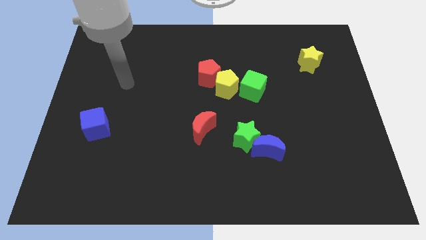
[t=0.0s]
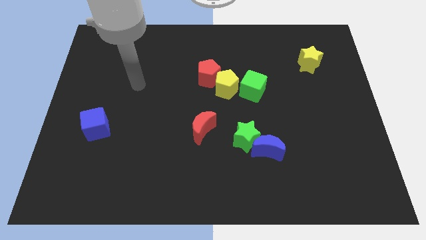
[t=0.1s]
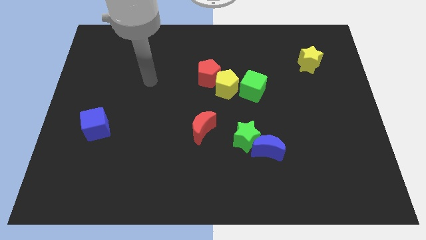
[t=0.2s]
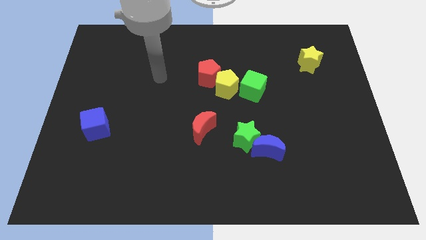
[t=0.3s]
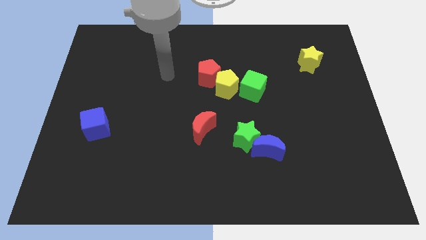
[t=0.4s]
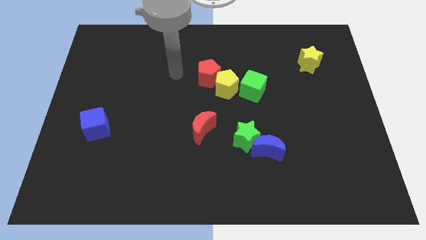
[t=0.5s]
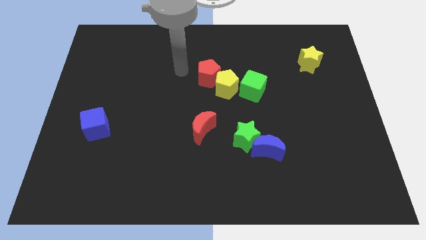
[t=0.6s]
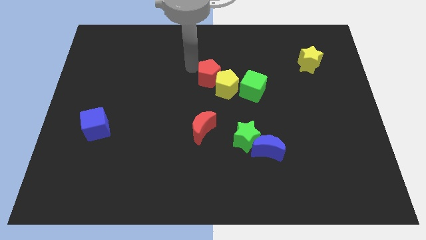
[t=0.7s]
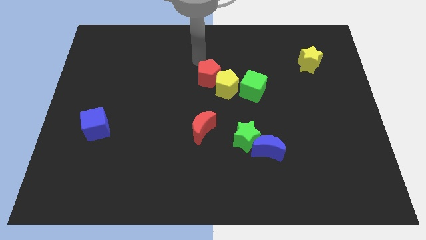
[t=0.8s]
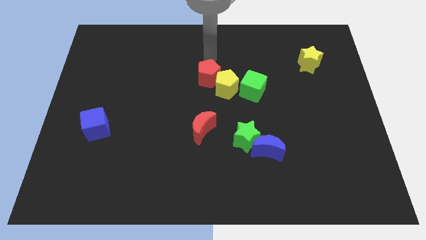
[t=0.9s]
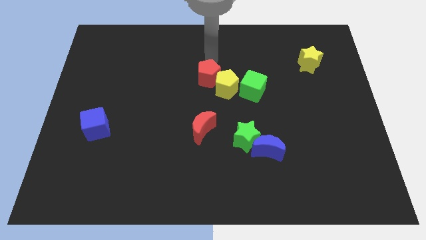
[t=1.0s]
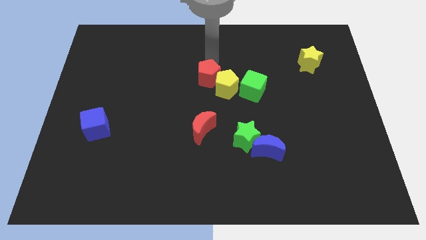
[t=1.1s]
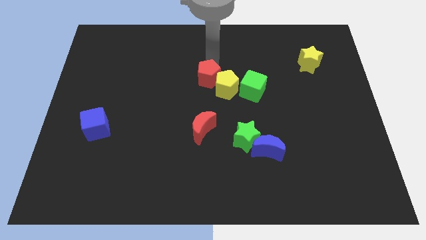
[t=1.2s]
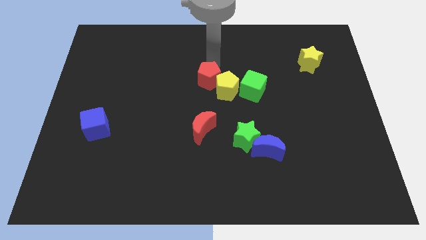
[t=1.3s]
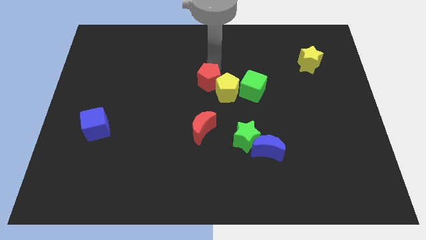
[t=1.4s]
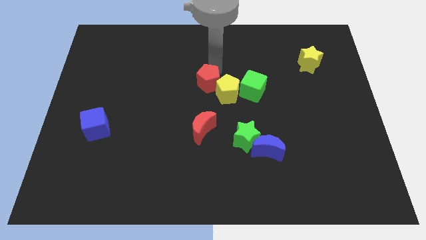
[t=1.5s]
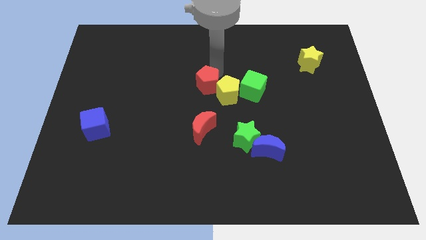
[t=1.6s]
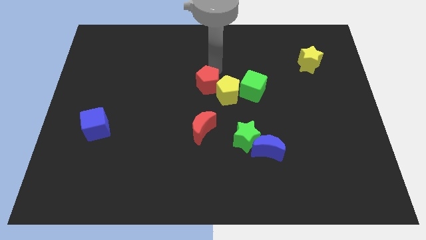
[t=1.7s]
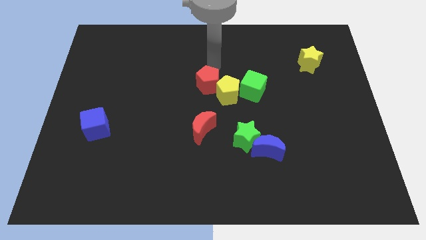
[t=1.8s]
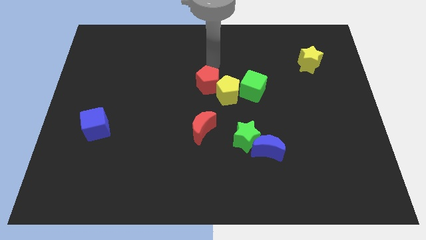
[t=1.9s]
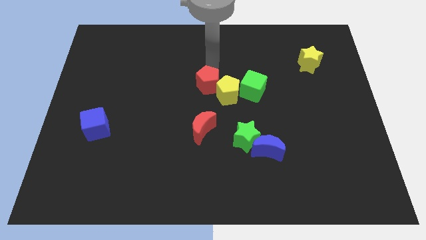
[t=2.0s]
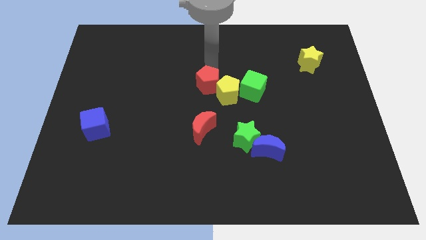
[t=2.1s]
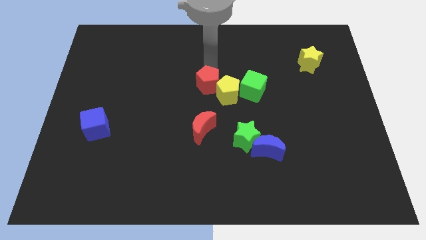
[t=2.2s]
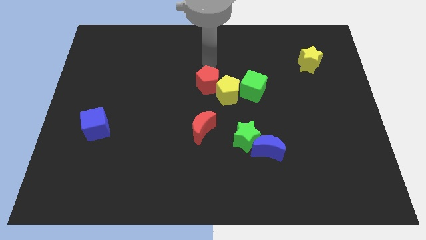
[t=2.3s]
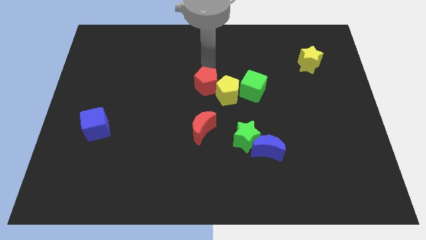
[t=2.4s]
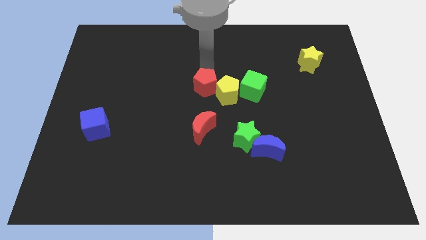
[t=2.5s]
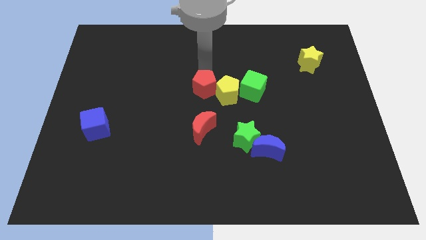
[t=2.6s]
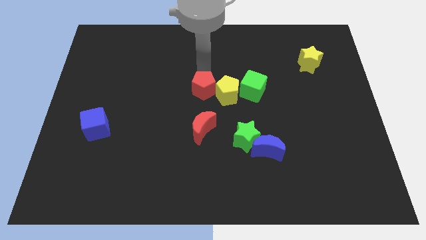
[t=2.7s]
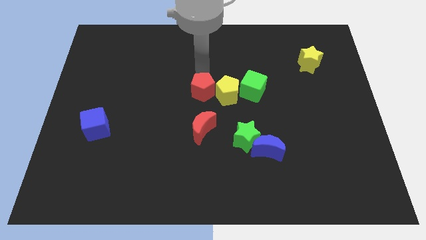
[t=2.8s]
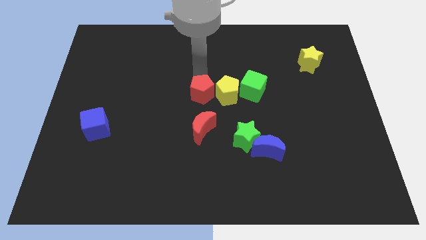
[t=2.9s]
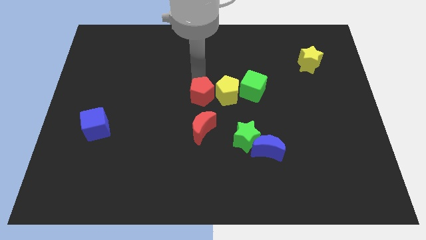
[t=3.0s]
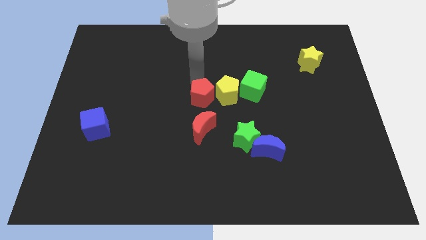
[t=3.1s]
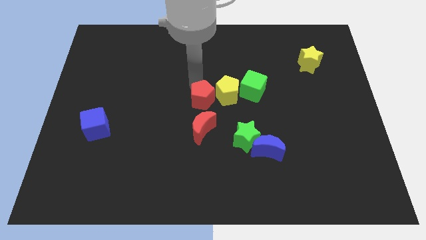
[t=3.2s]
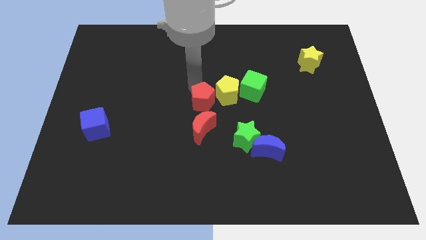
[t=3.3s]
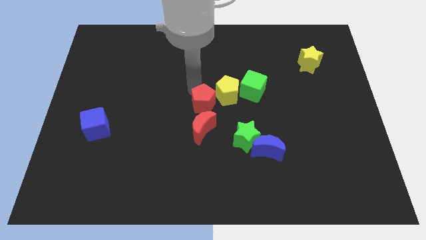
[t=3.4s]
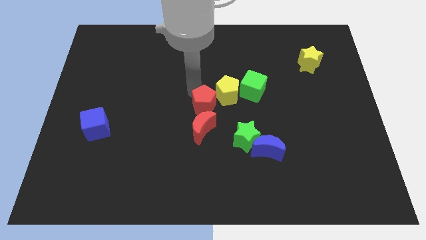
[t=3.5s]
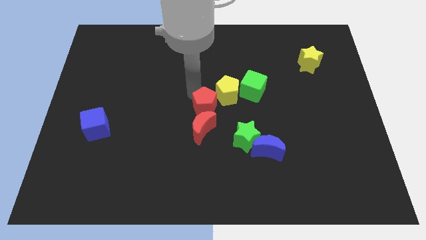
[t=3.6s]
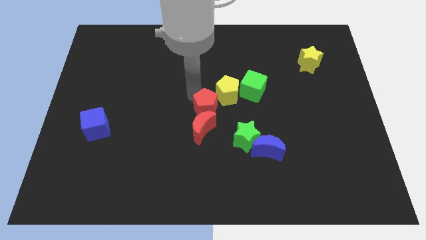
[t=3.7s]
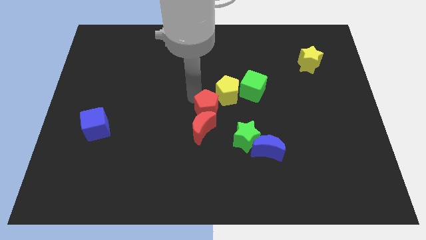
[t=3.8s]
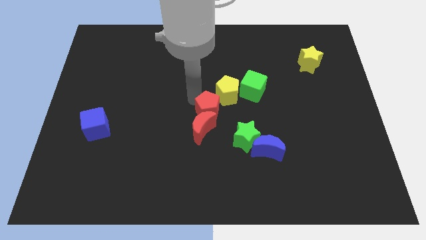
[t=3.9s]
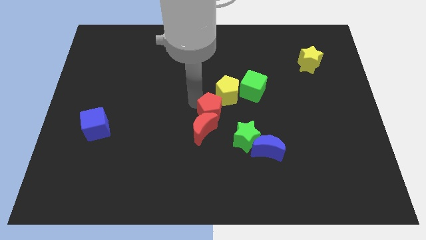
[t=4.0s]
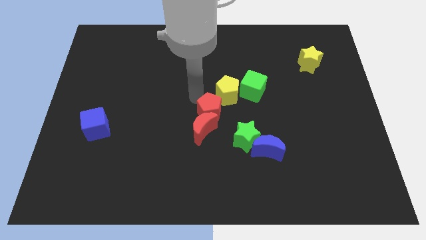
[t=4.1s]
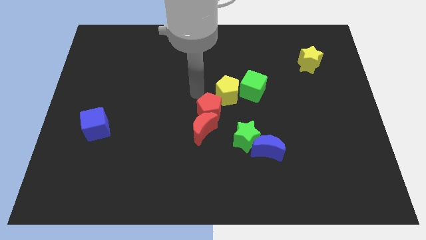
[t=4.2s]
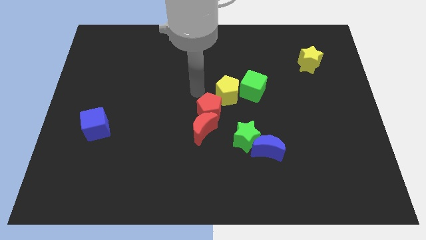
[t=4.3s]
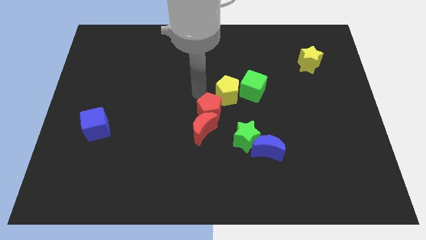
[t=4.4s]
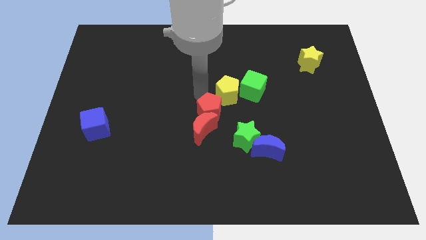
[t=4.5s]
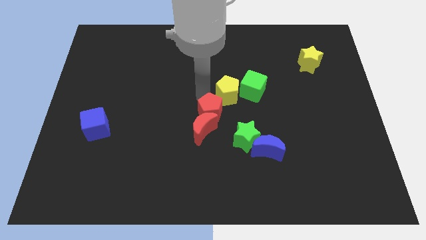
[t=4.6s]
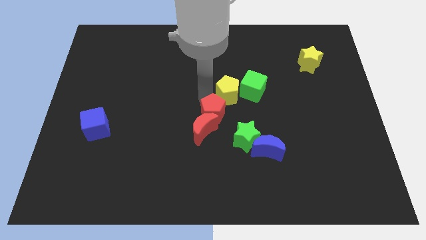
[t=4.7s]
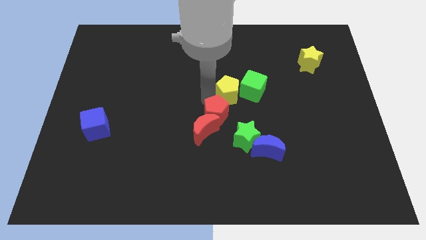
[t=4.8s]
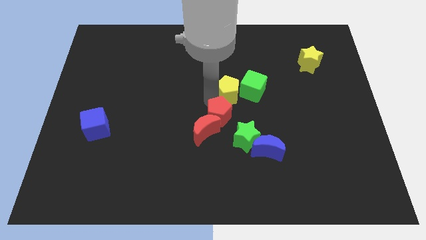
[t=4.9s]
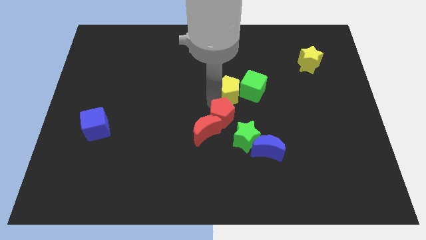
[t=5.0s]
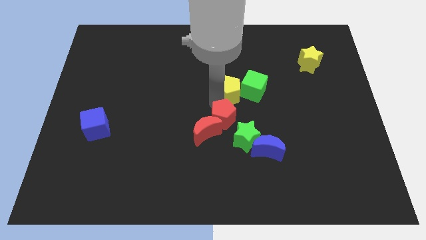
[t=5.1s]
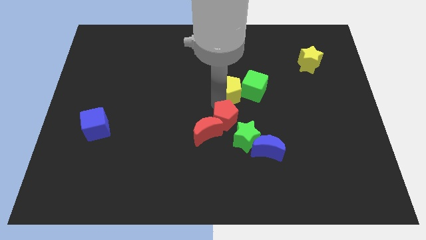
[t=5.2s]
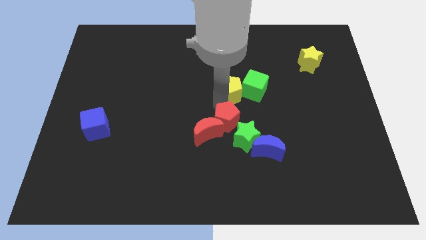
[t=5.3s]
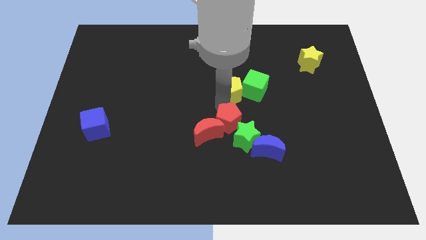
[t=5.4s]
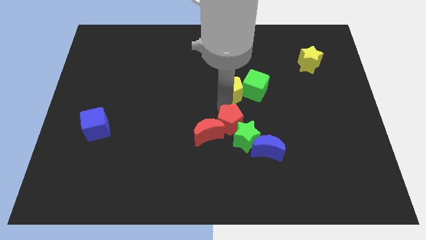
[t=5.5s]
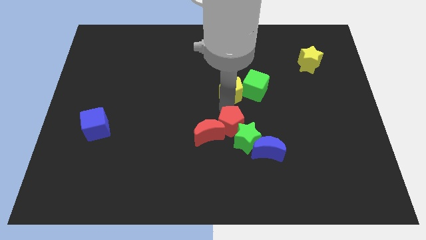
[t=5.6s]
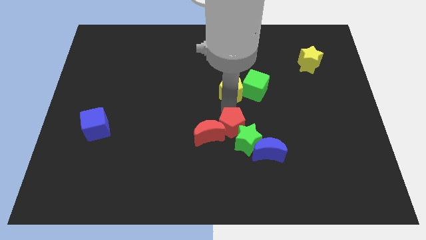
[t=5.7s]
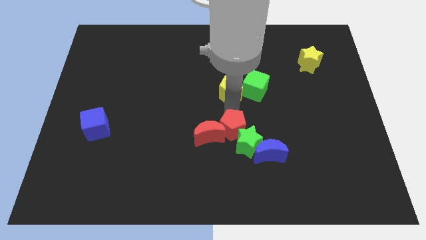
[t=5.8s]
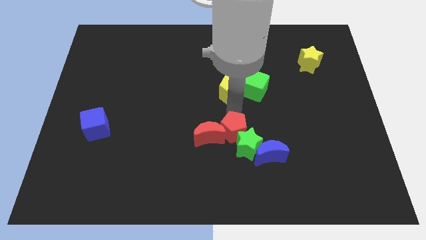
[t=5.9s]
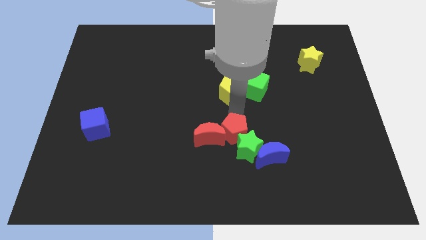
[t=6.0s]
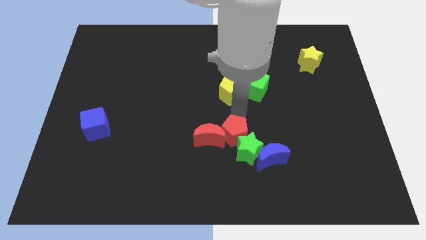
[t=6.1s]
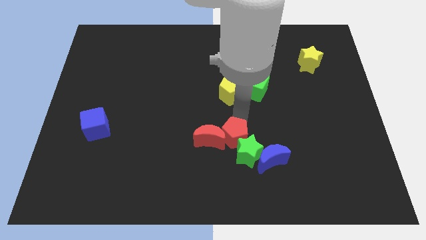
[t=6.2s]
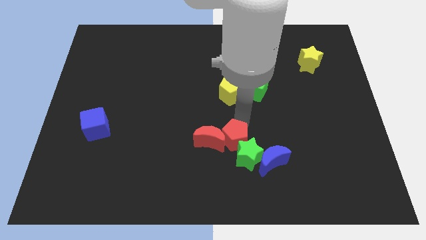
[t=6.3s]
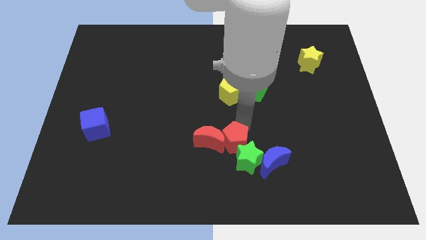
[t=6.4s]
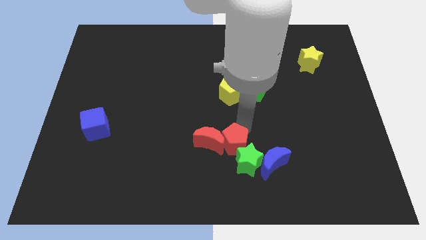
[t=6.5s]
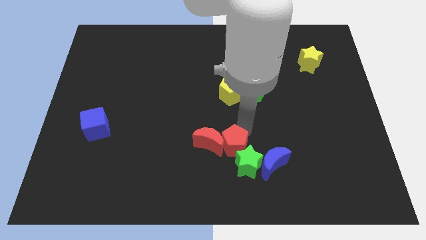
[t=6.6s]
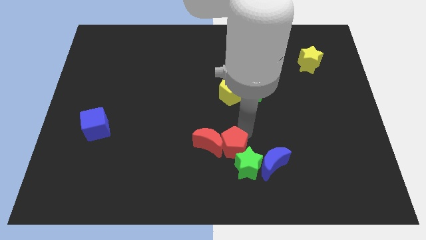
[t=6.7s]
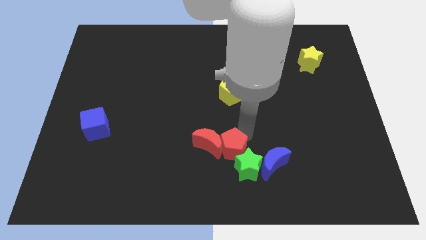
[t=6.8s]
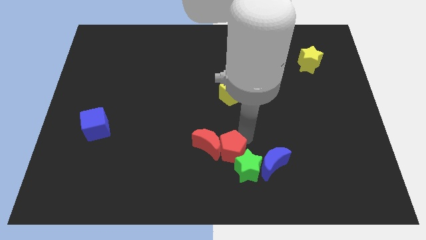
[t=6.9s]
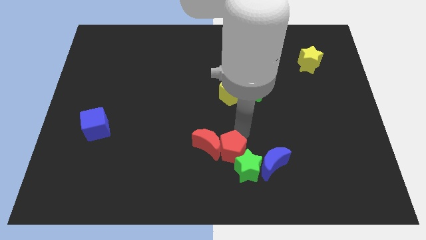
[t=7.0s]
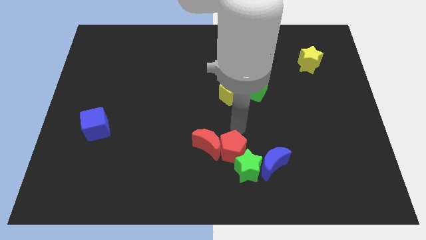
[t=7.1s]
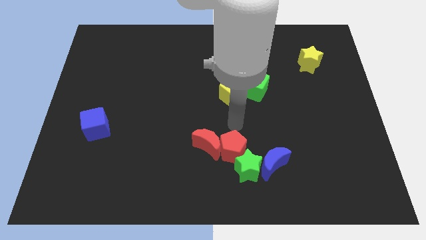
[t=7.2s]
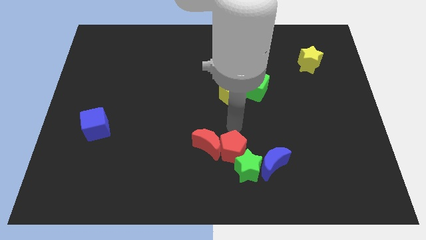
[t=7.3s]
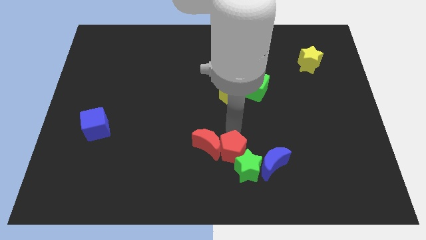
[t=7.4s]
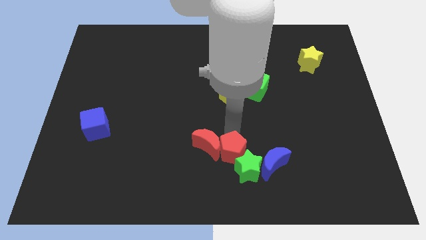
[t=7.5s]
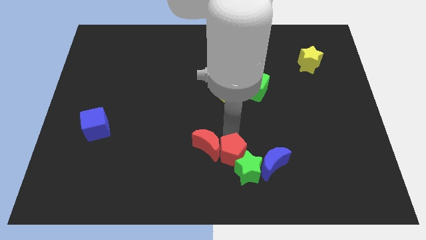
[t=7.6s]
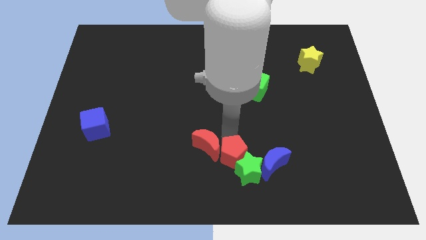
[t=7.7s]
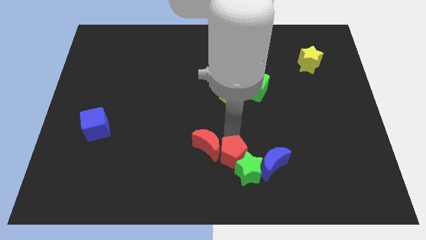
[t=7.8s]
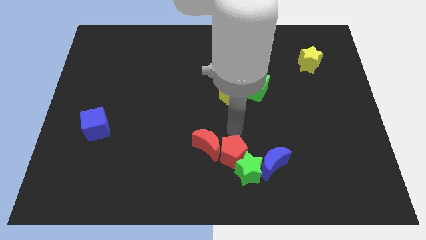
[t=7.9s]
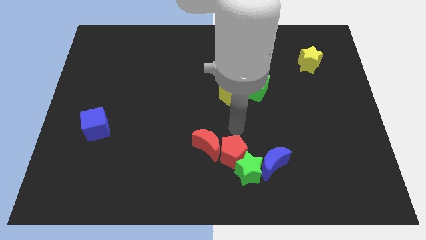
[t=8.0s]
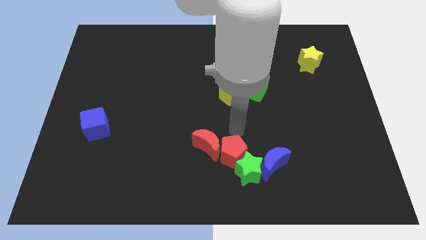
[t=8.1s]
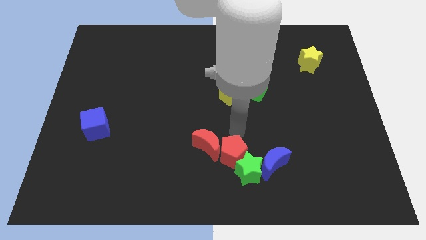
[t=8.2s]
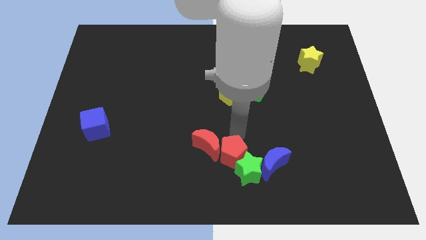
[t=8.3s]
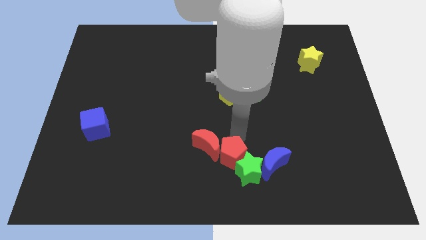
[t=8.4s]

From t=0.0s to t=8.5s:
push the red pentagon to the bottom side
